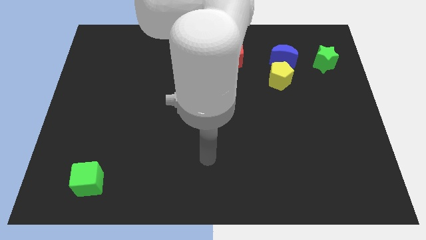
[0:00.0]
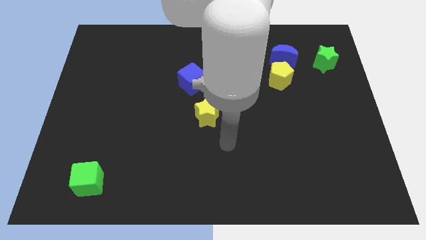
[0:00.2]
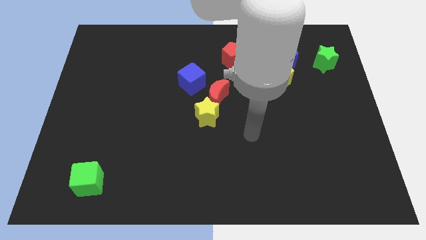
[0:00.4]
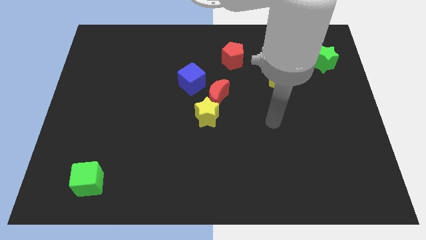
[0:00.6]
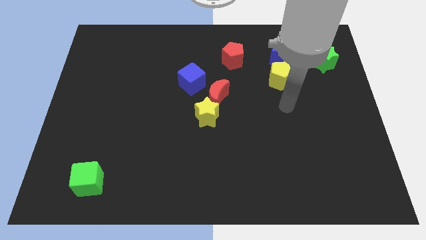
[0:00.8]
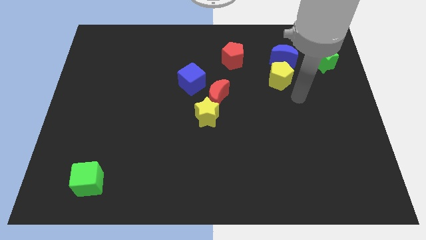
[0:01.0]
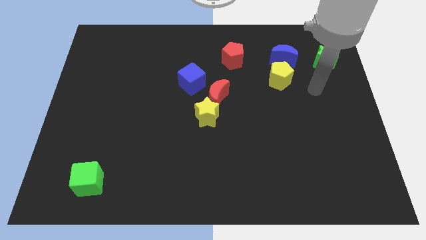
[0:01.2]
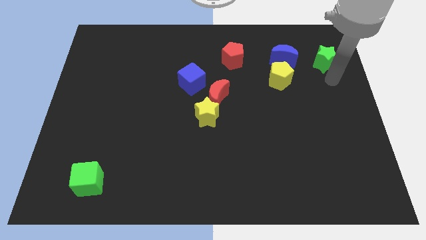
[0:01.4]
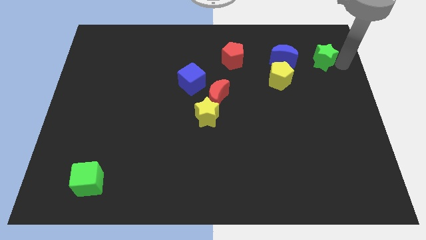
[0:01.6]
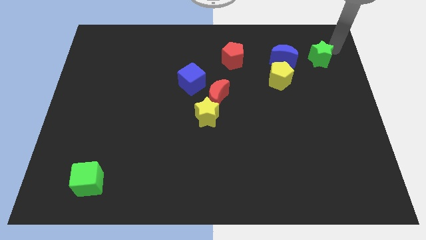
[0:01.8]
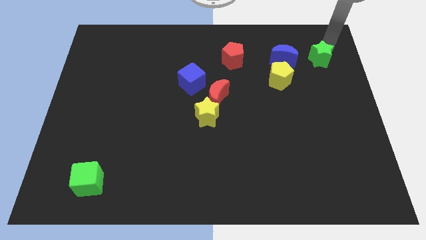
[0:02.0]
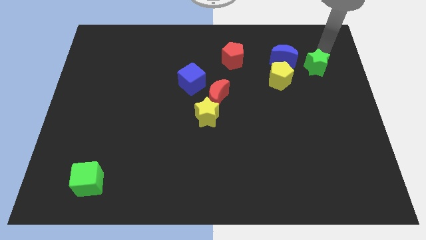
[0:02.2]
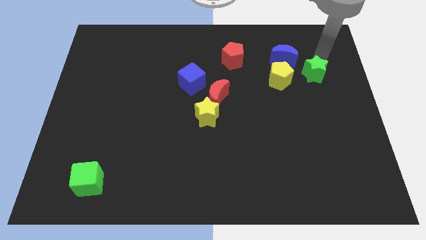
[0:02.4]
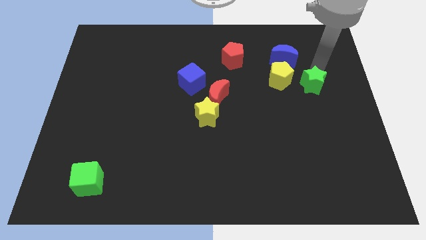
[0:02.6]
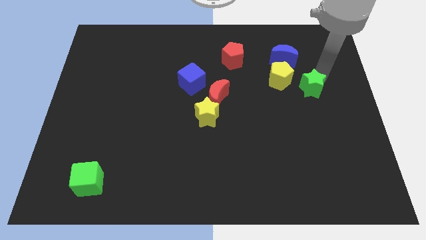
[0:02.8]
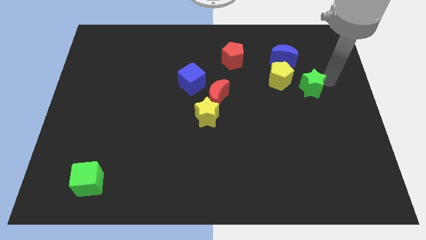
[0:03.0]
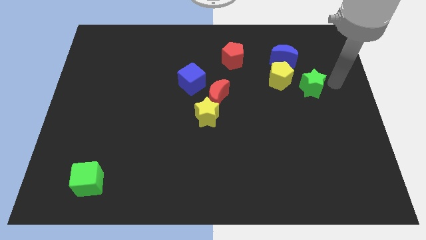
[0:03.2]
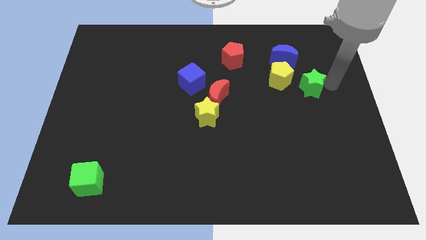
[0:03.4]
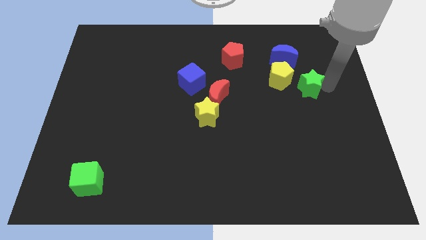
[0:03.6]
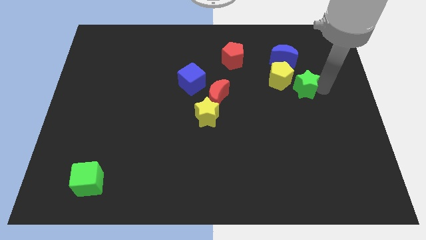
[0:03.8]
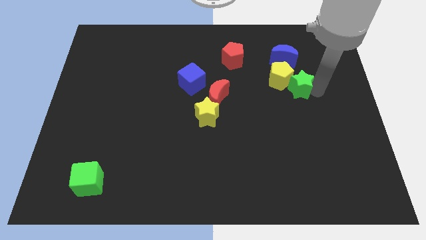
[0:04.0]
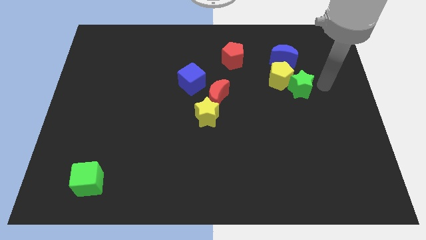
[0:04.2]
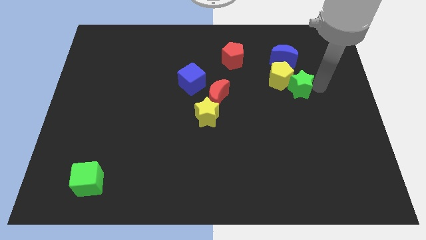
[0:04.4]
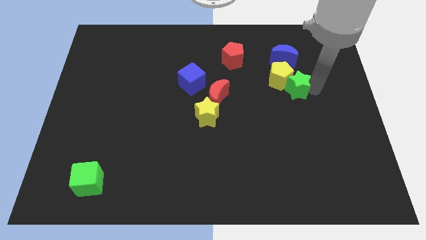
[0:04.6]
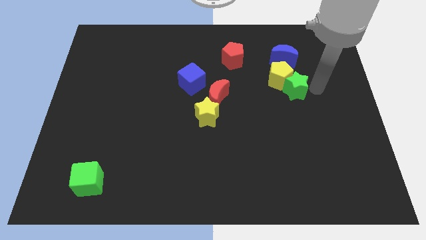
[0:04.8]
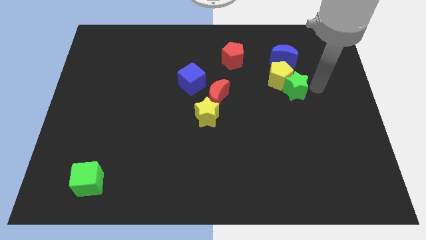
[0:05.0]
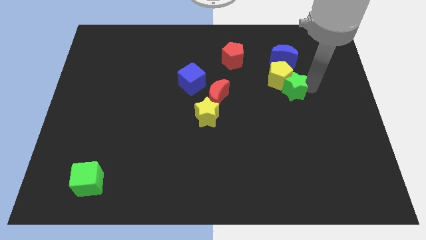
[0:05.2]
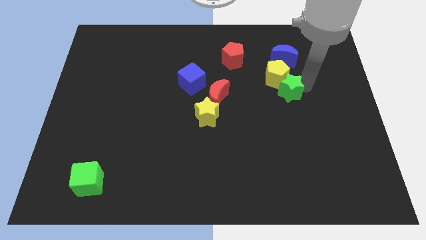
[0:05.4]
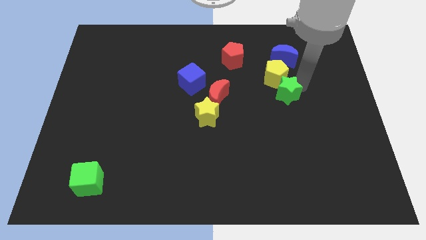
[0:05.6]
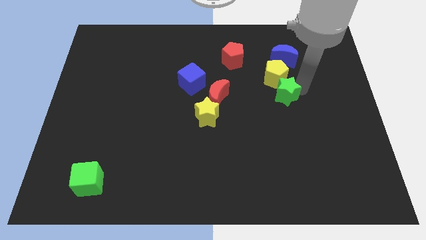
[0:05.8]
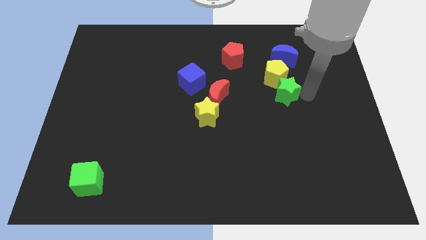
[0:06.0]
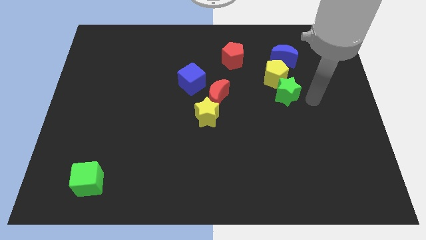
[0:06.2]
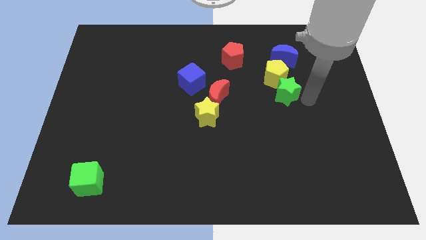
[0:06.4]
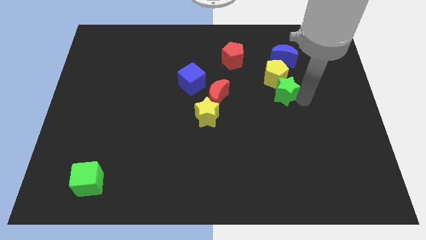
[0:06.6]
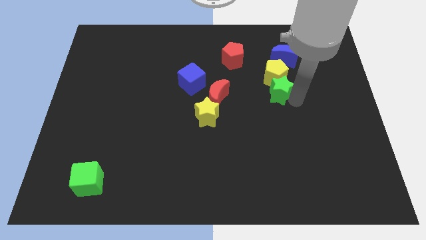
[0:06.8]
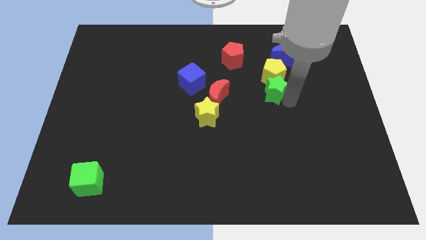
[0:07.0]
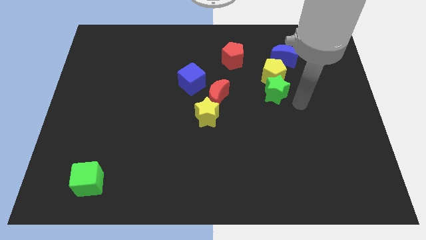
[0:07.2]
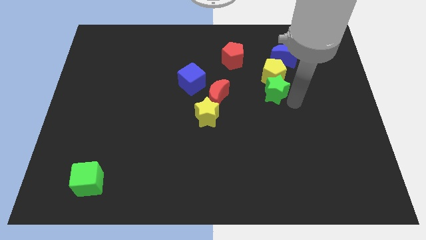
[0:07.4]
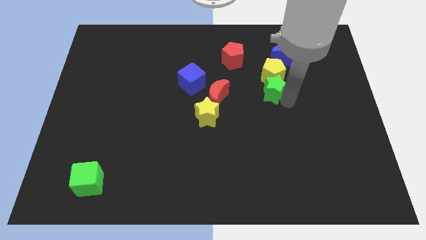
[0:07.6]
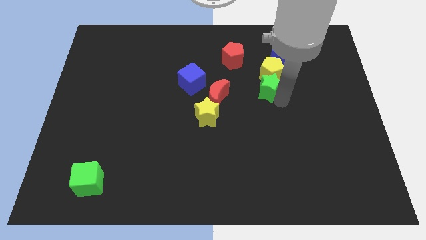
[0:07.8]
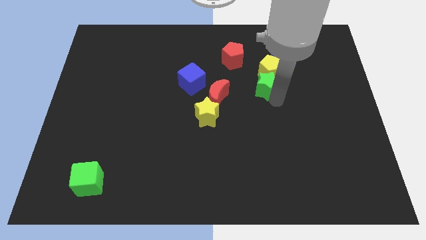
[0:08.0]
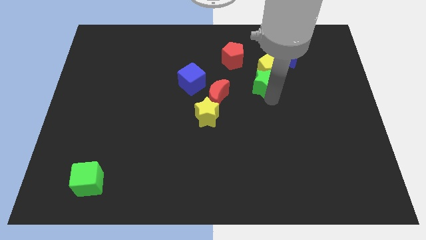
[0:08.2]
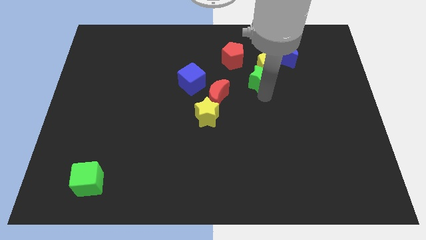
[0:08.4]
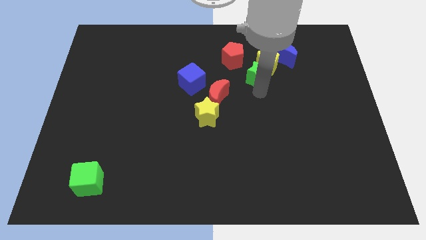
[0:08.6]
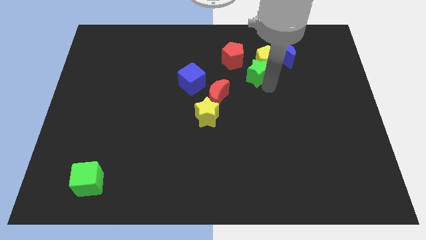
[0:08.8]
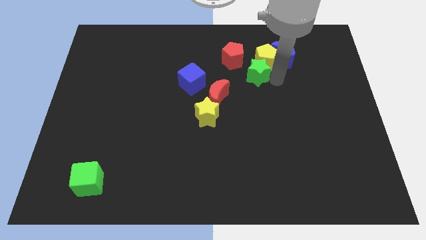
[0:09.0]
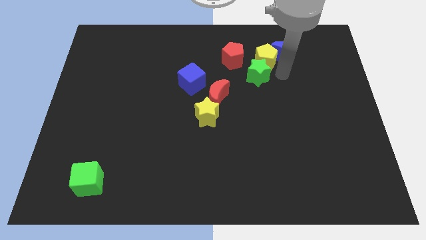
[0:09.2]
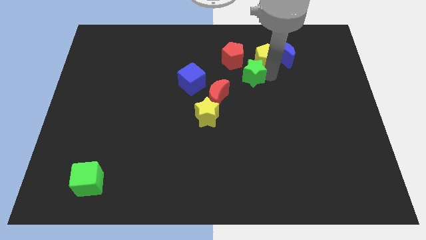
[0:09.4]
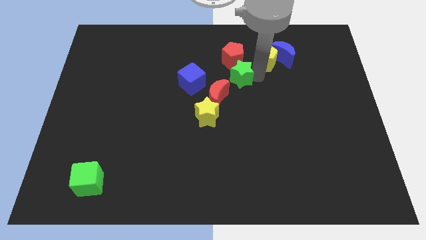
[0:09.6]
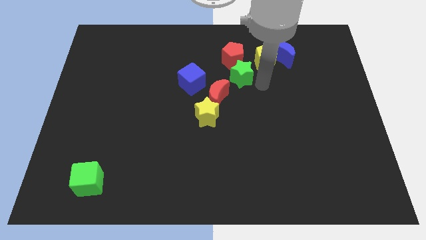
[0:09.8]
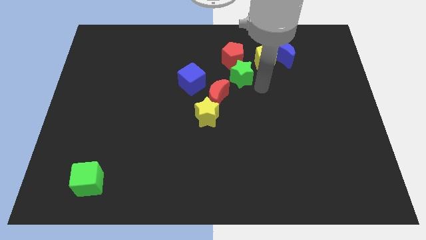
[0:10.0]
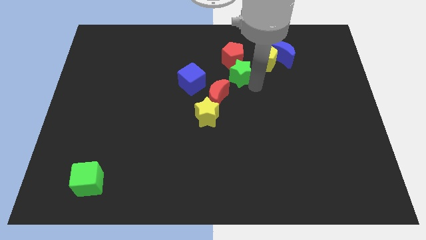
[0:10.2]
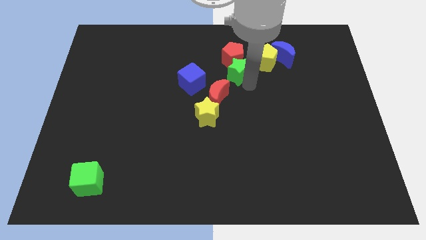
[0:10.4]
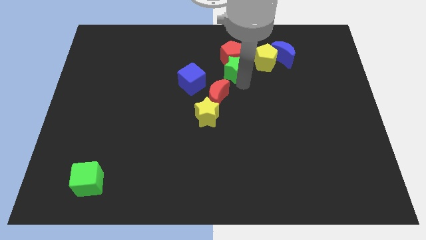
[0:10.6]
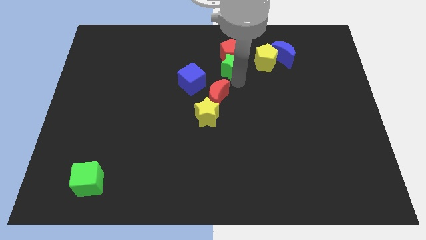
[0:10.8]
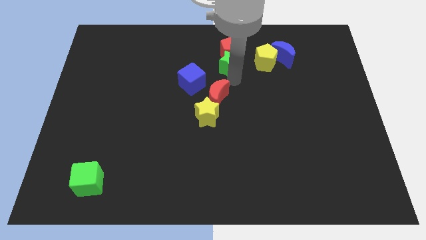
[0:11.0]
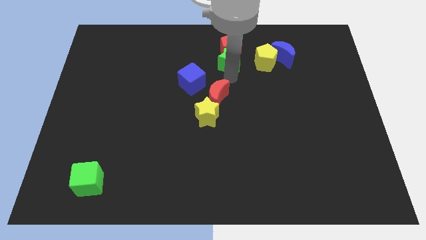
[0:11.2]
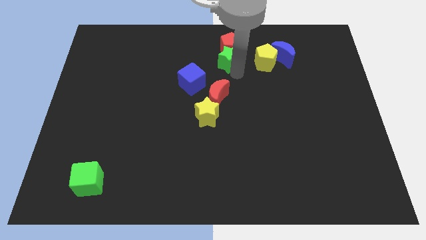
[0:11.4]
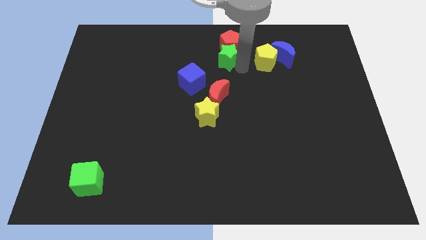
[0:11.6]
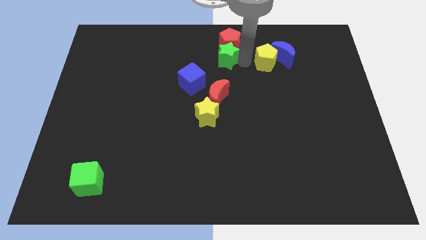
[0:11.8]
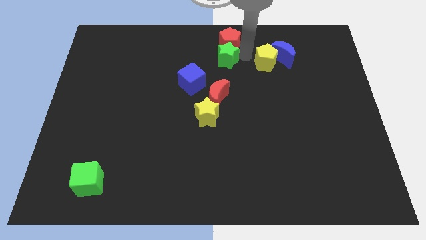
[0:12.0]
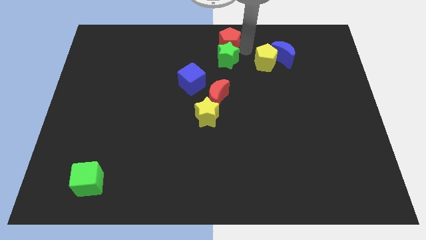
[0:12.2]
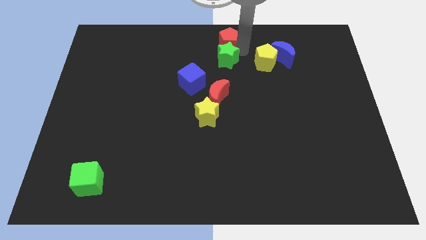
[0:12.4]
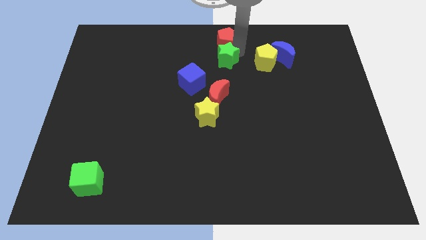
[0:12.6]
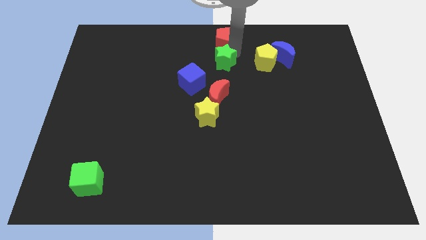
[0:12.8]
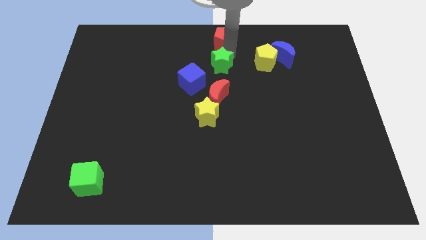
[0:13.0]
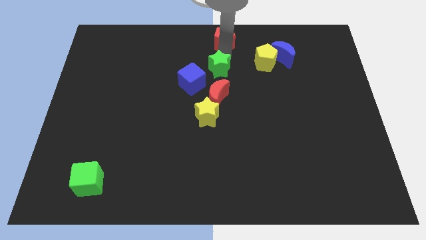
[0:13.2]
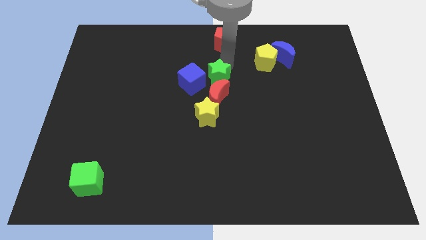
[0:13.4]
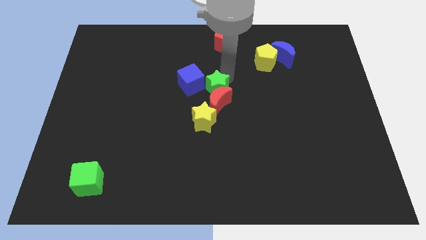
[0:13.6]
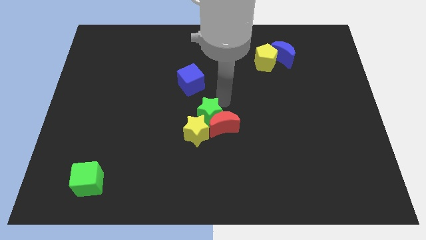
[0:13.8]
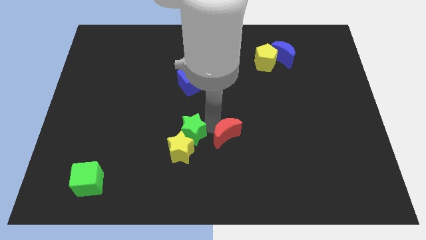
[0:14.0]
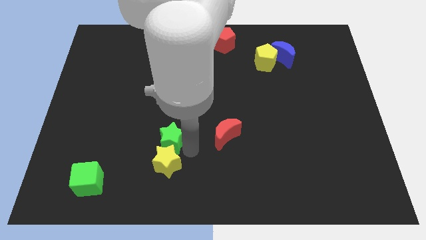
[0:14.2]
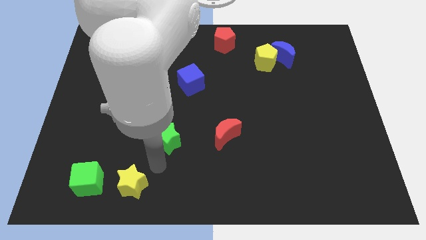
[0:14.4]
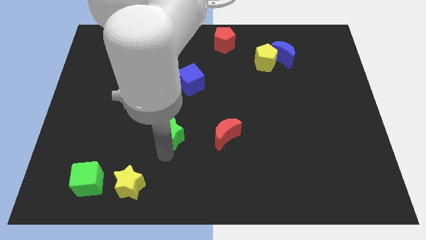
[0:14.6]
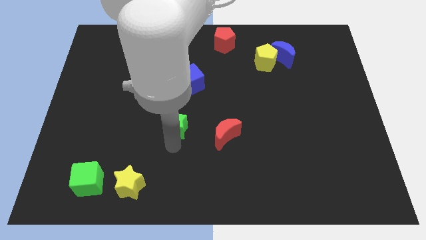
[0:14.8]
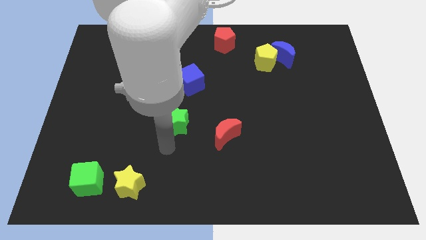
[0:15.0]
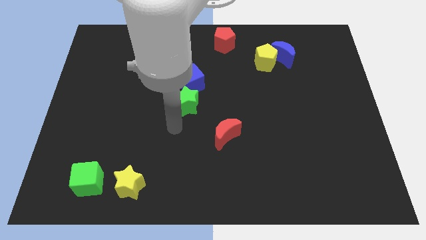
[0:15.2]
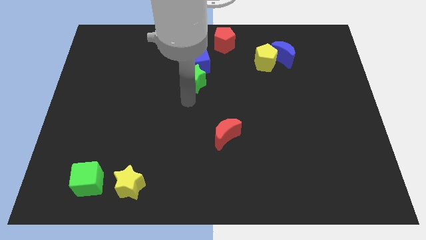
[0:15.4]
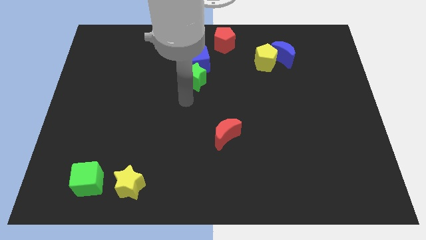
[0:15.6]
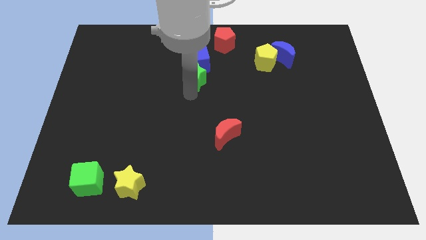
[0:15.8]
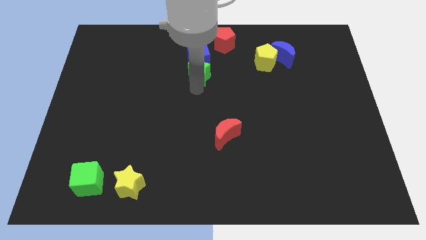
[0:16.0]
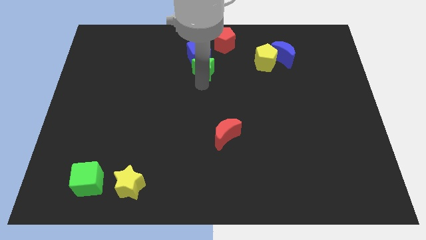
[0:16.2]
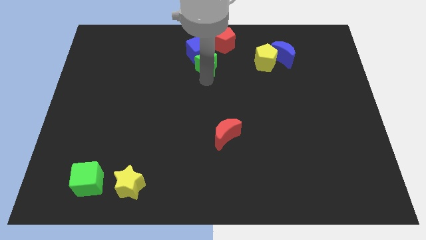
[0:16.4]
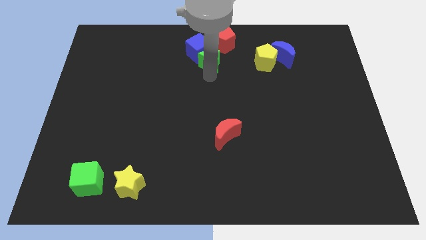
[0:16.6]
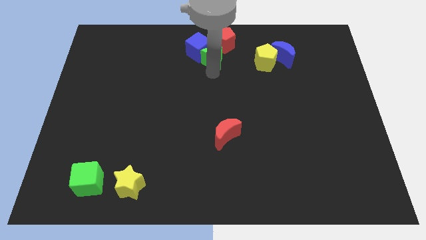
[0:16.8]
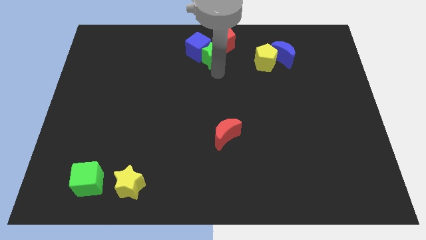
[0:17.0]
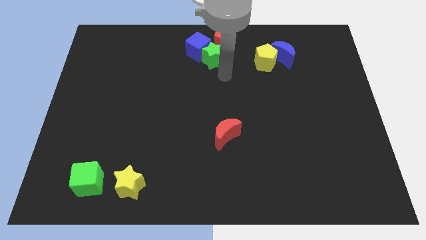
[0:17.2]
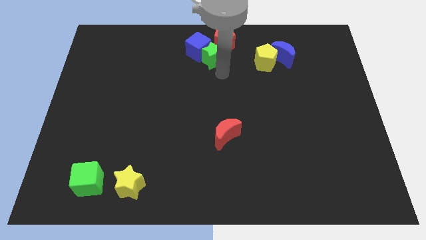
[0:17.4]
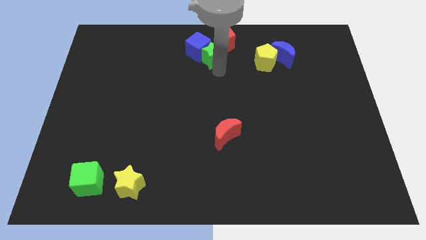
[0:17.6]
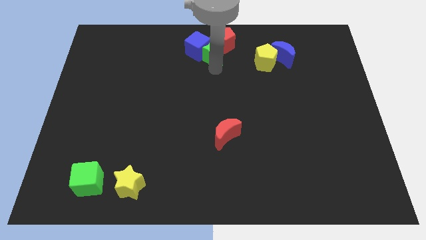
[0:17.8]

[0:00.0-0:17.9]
put the green star to the top side
